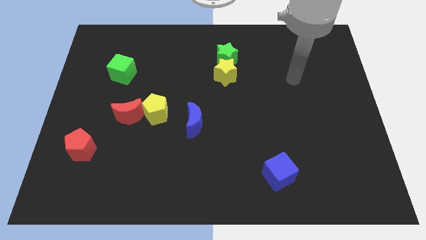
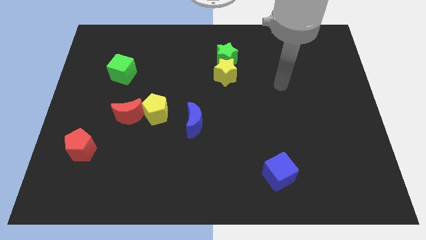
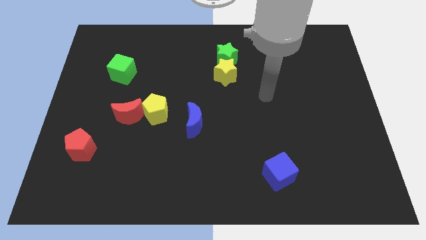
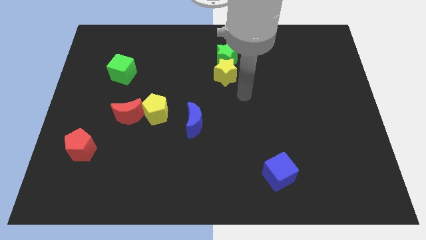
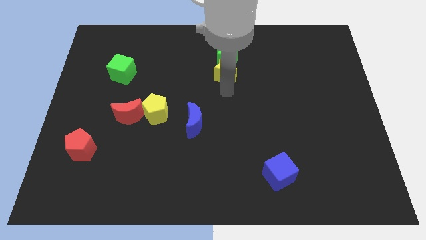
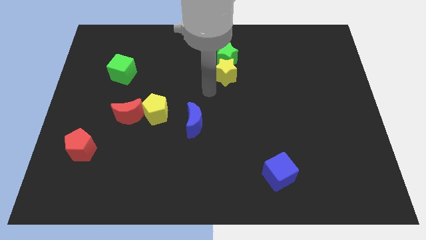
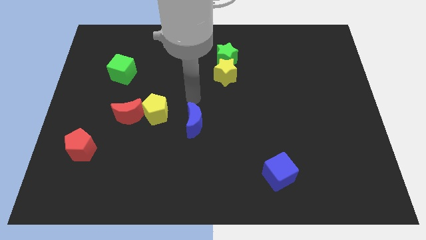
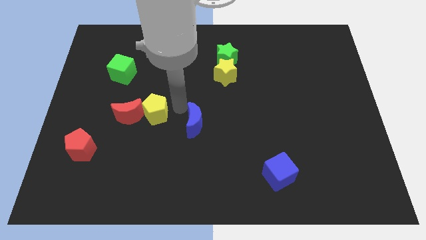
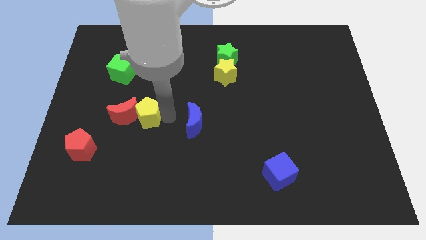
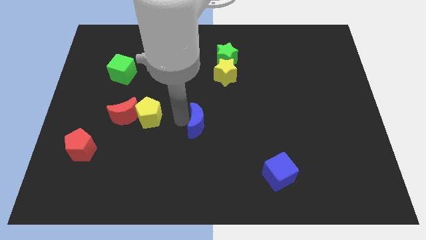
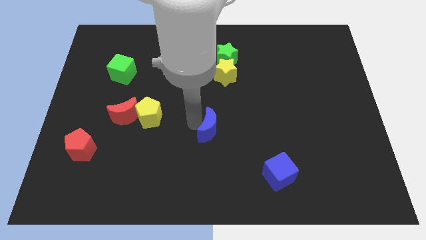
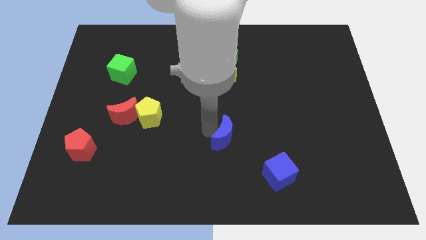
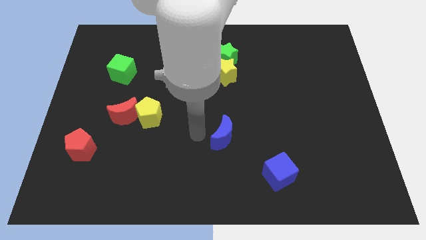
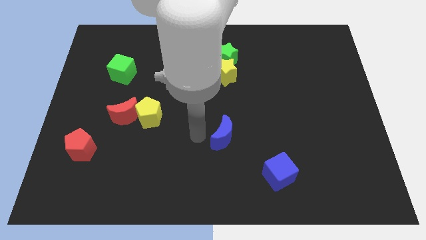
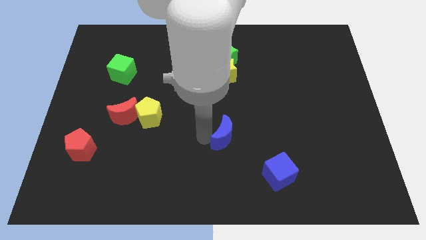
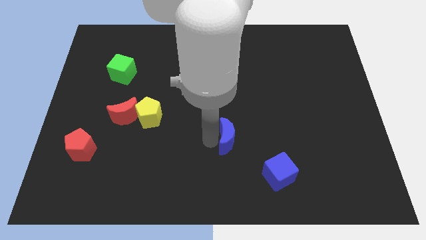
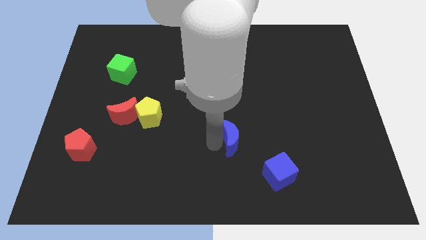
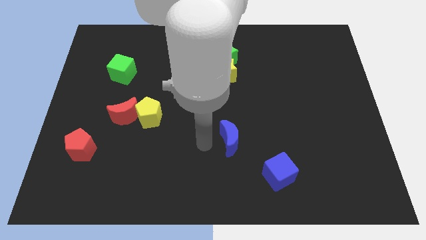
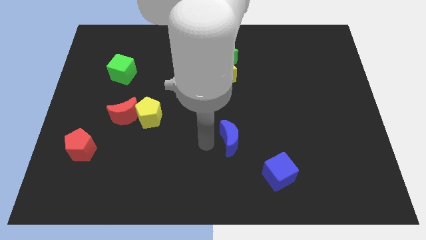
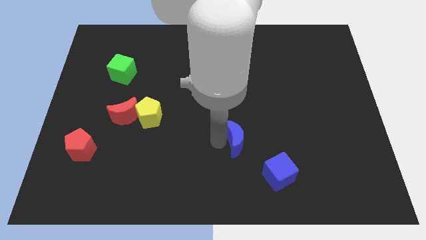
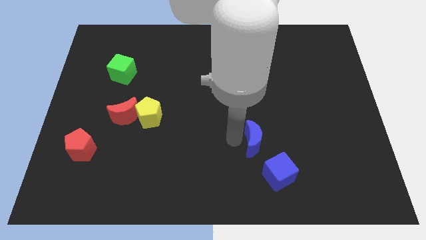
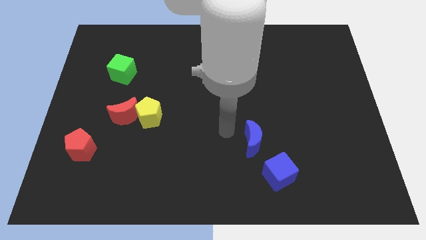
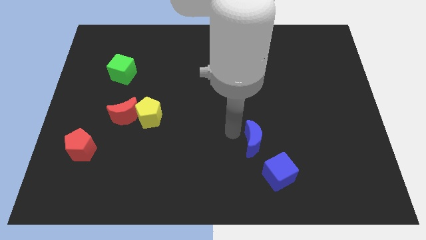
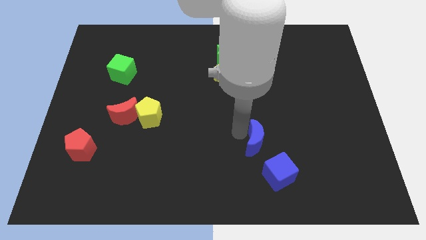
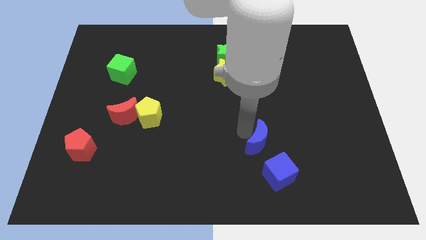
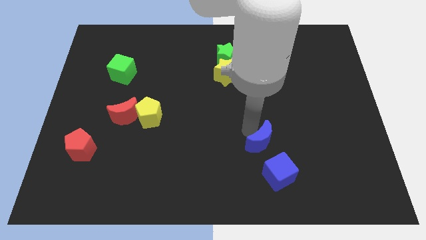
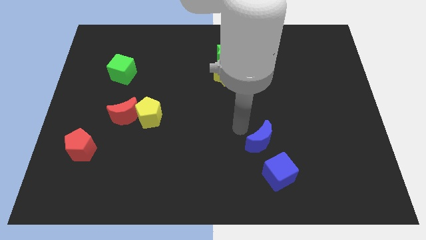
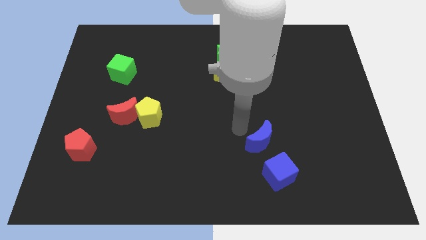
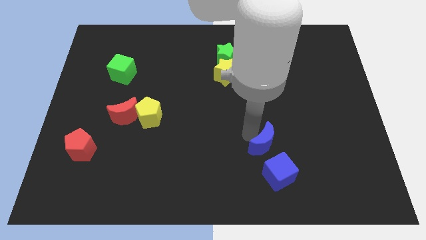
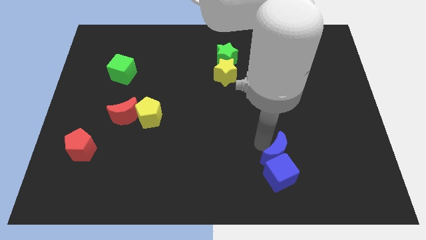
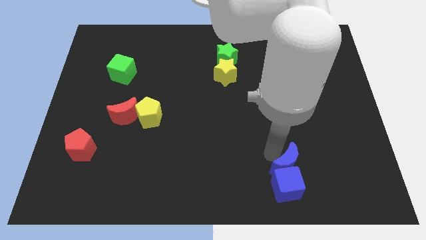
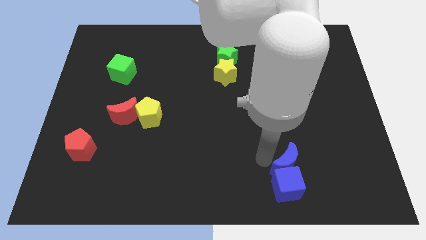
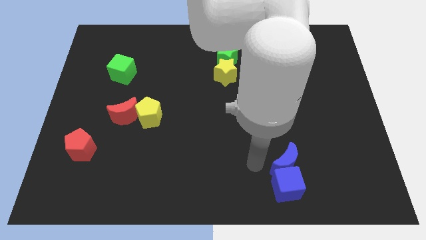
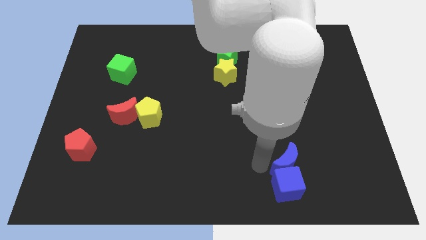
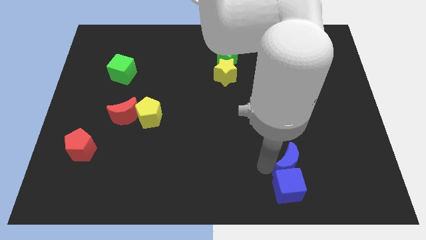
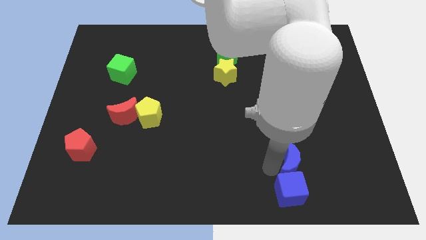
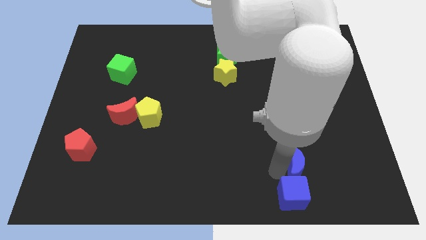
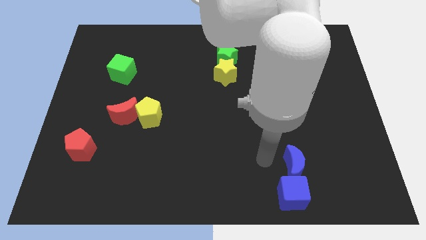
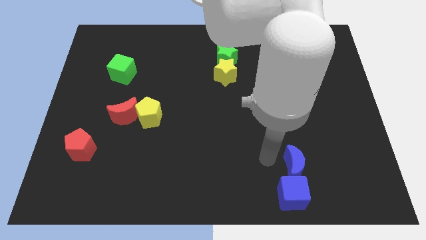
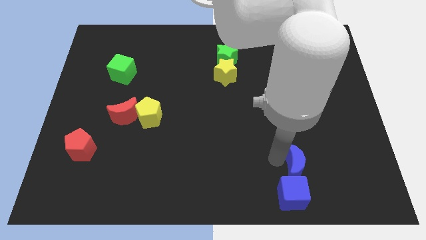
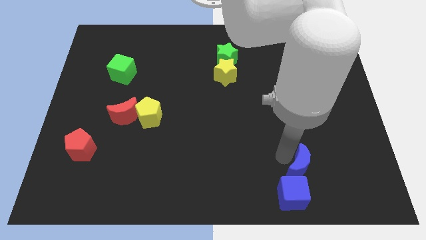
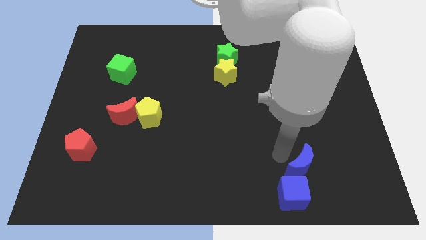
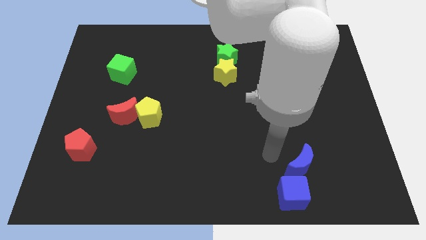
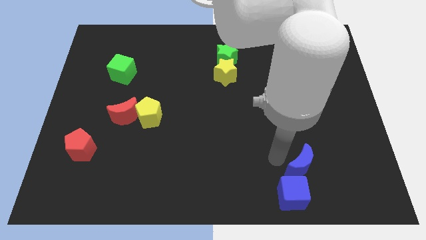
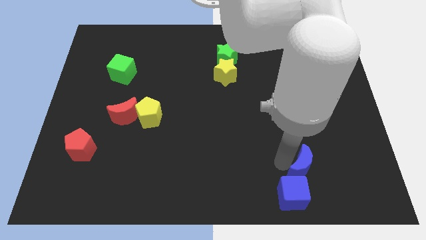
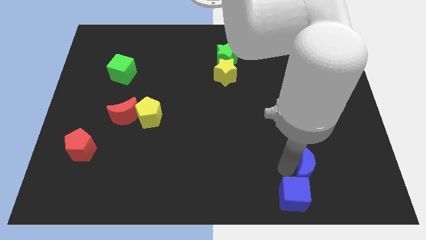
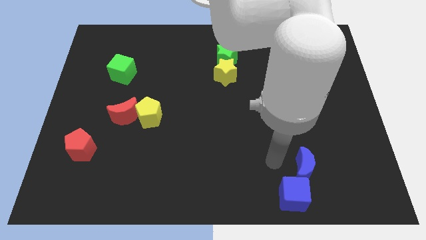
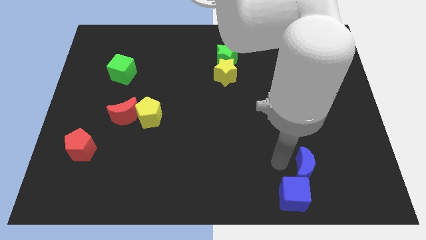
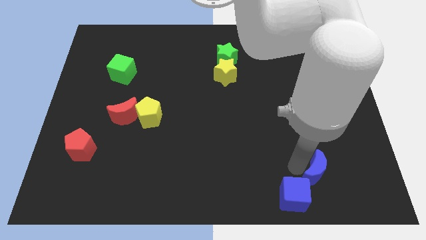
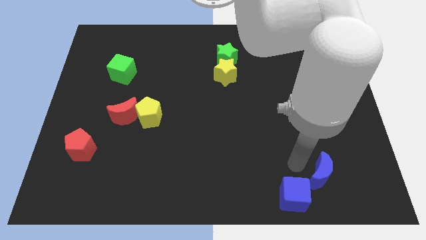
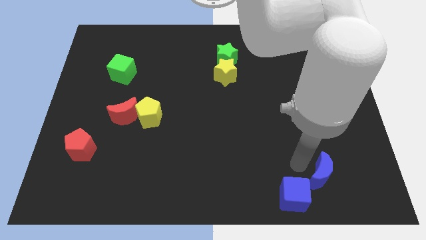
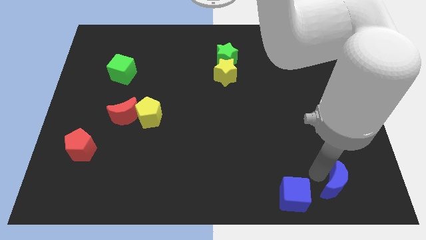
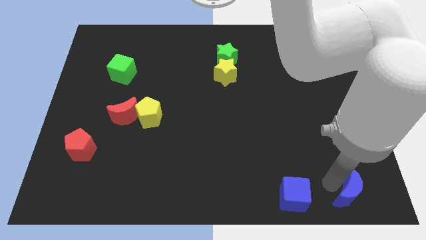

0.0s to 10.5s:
push the blue moon to the bottom right of the board

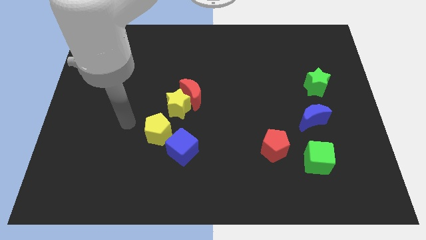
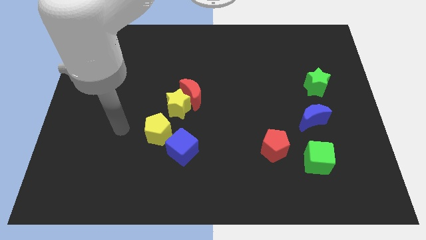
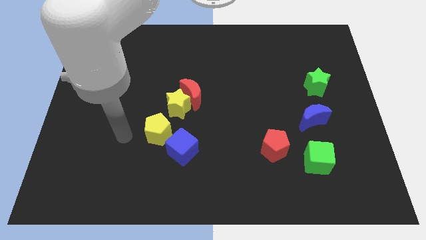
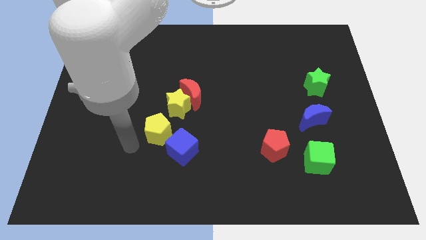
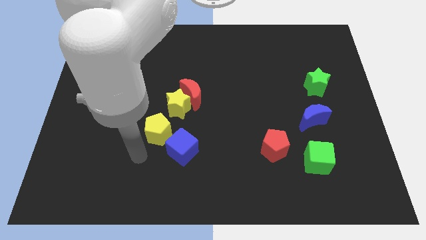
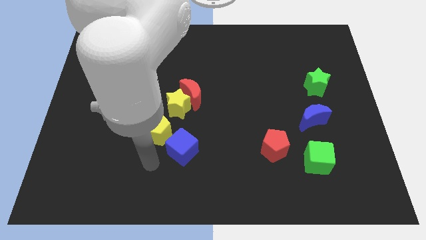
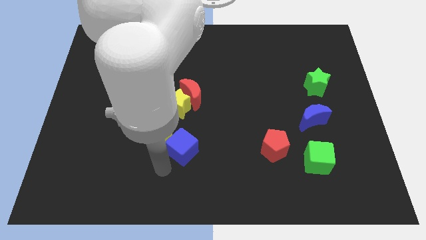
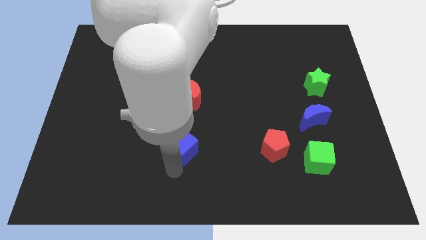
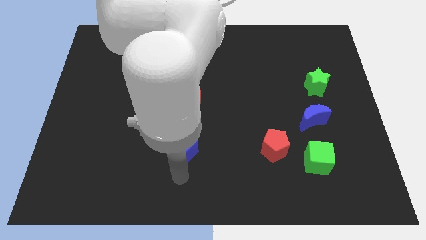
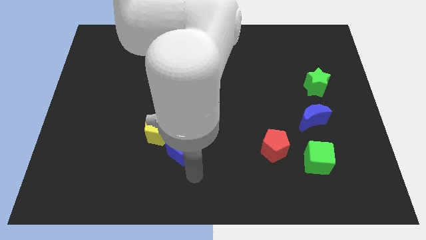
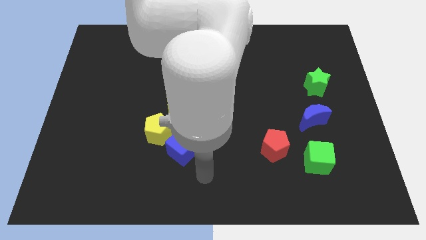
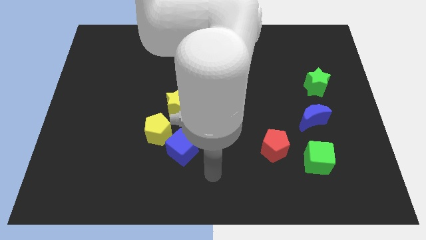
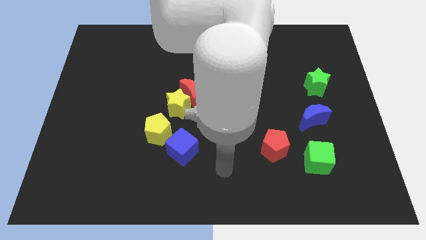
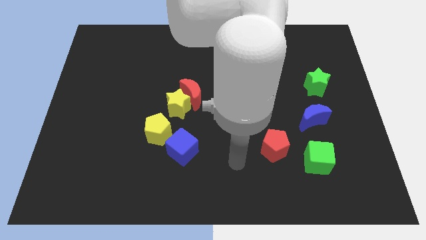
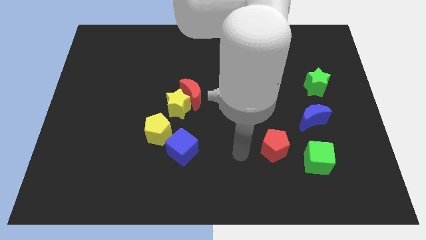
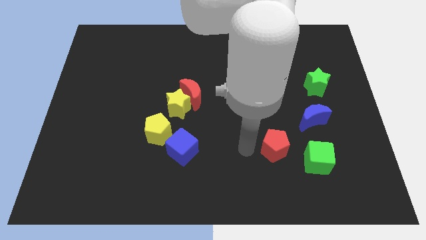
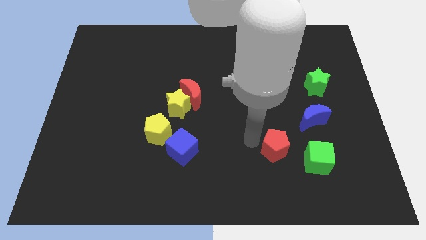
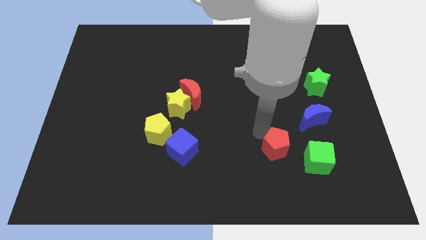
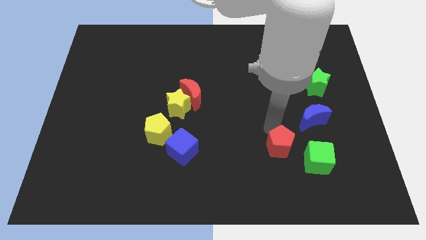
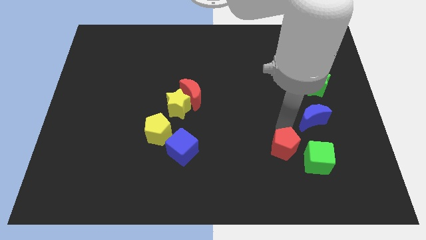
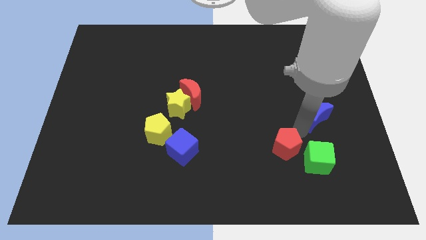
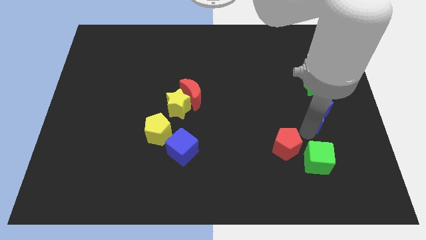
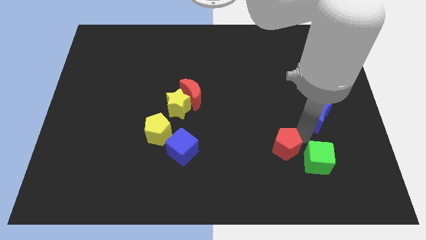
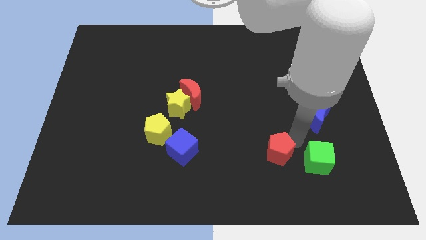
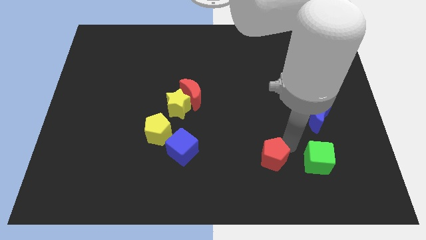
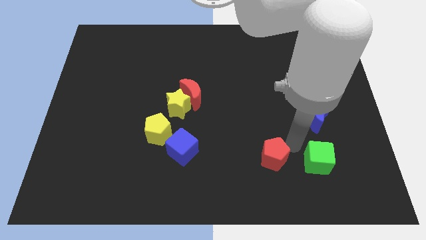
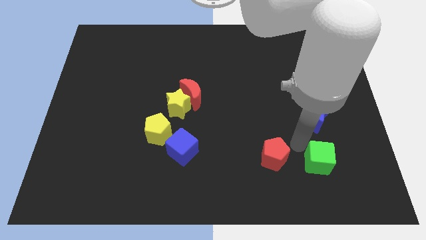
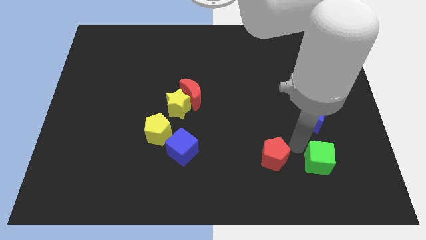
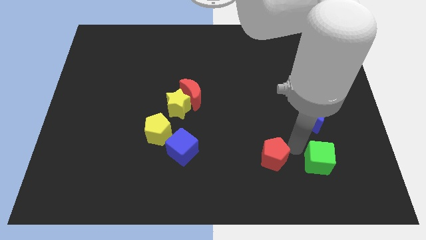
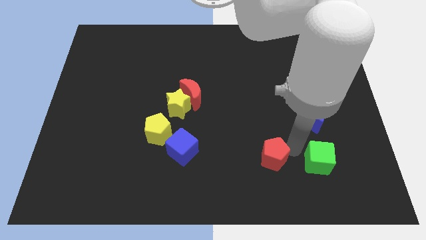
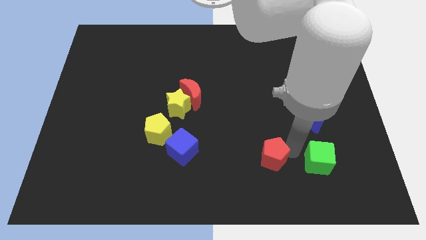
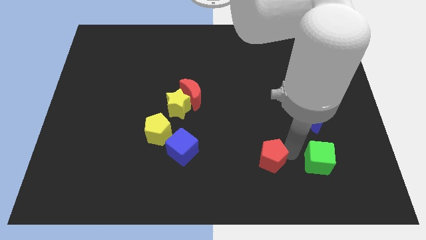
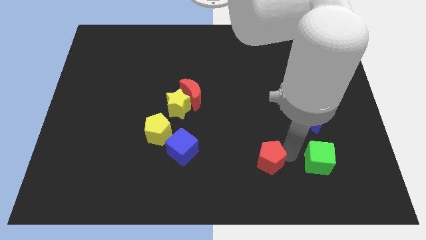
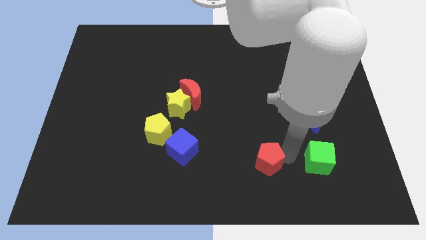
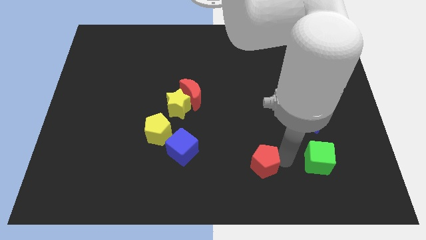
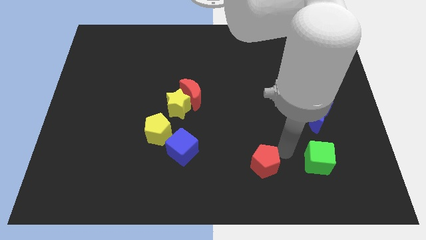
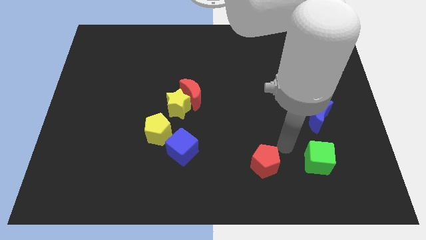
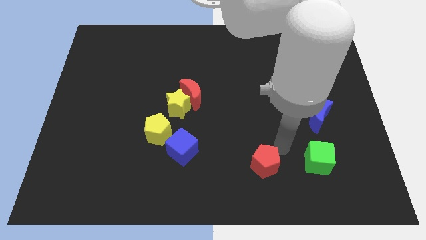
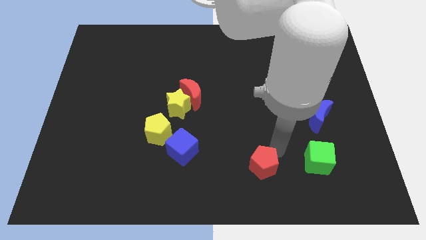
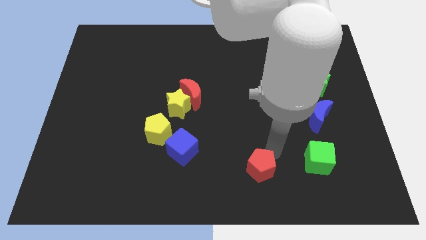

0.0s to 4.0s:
put the red pentagon to the bottom side
